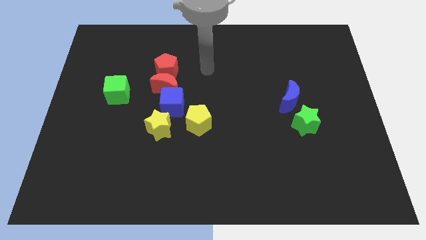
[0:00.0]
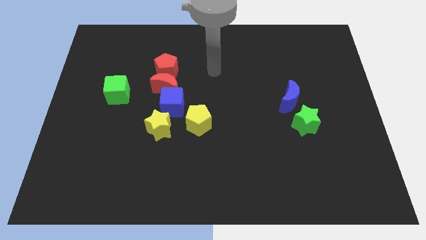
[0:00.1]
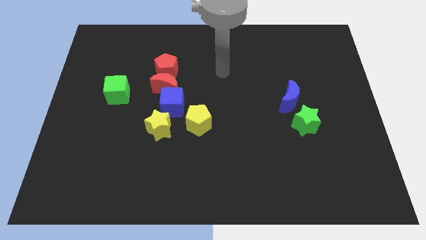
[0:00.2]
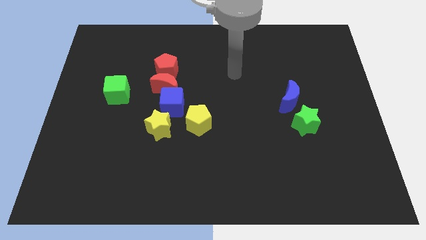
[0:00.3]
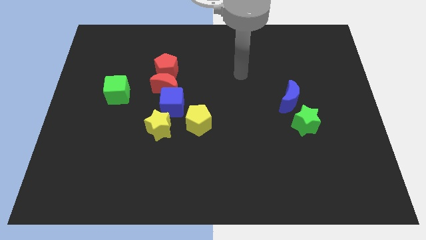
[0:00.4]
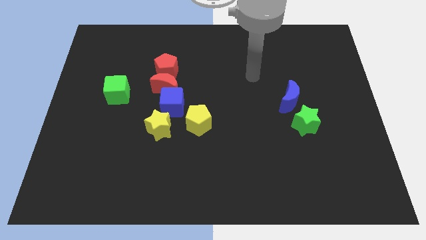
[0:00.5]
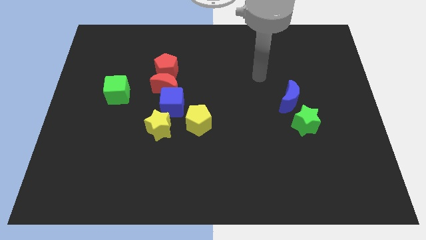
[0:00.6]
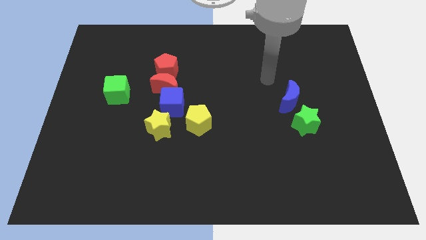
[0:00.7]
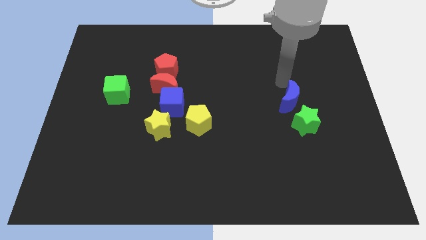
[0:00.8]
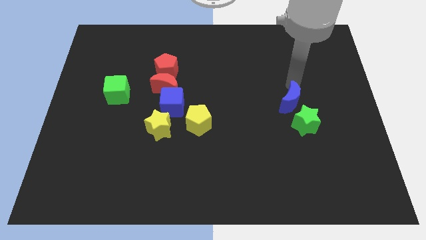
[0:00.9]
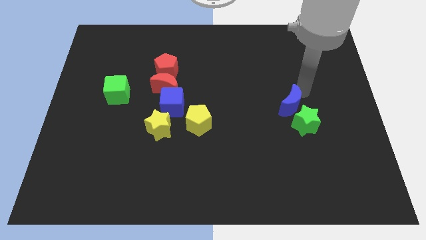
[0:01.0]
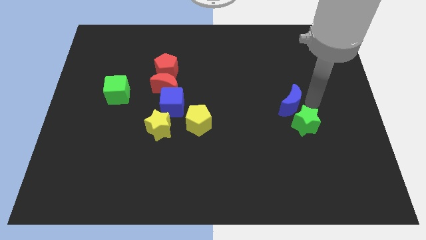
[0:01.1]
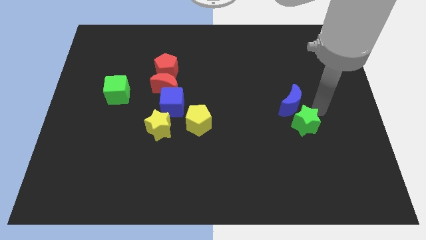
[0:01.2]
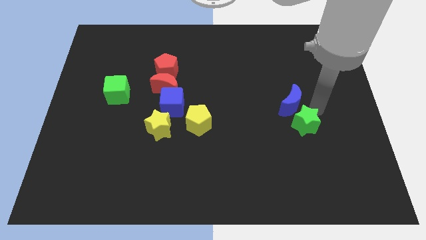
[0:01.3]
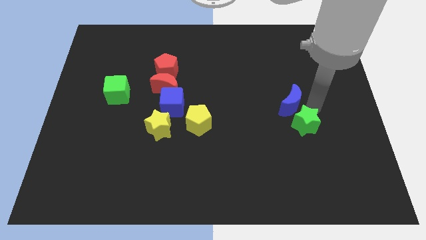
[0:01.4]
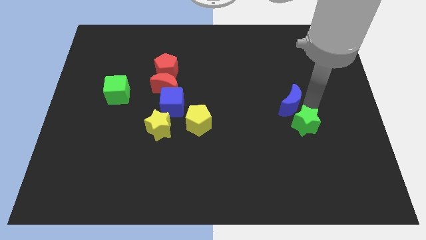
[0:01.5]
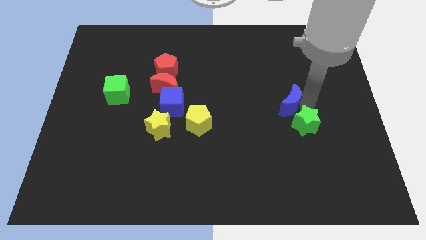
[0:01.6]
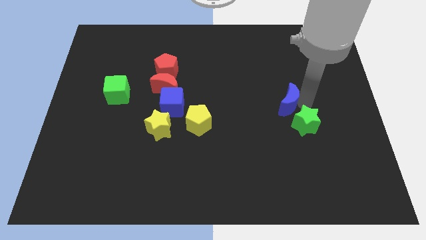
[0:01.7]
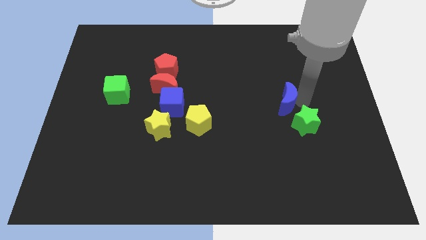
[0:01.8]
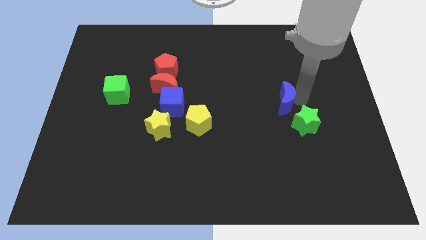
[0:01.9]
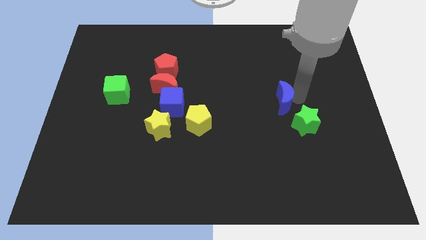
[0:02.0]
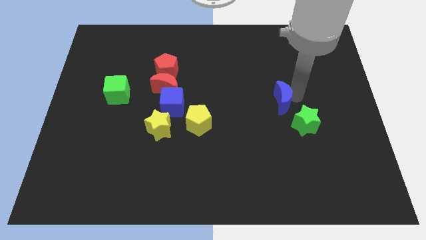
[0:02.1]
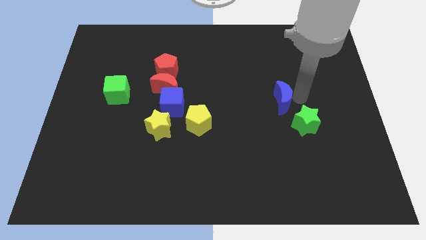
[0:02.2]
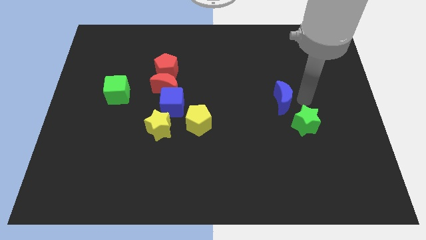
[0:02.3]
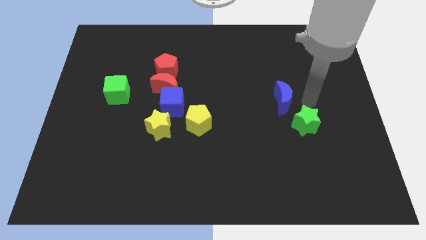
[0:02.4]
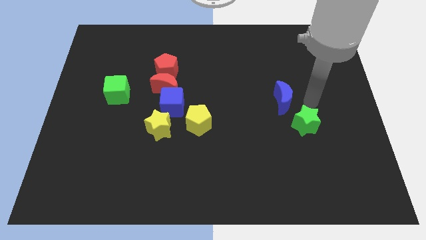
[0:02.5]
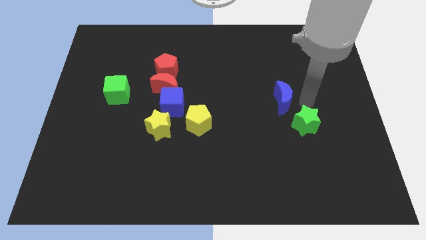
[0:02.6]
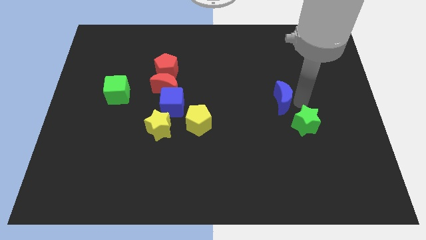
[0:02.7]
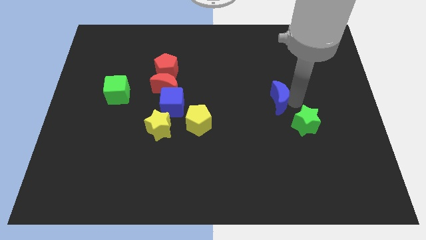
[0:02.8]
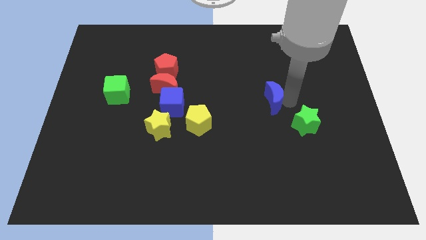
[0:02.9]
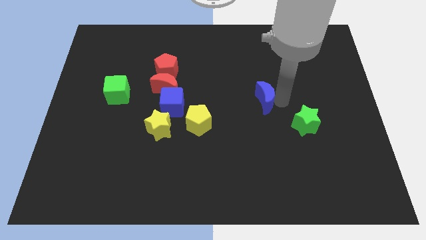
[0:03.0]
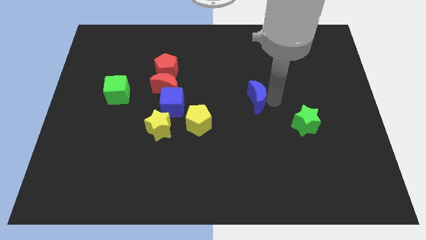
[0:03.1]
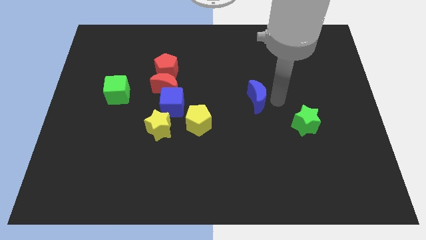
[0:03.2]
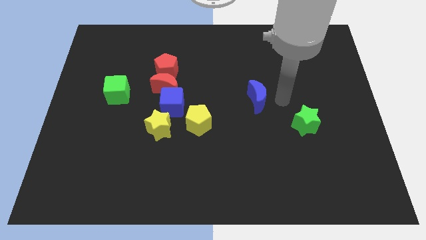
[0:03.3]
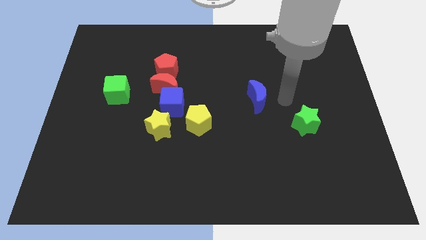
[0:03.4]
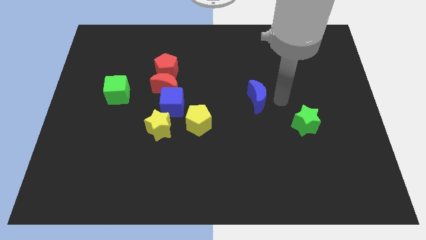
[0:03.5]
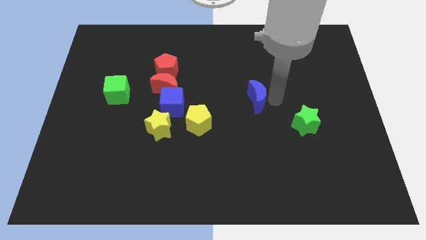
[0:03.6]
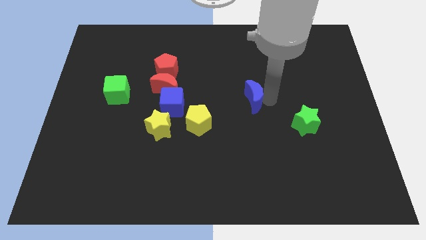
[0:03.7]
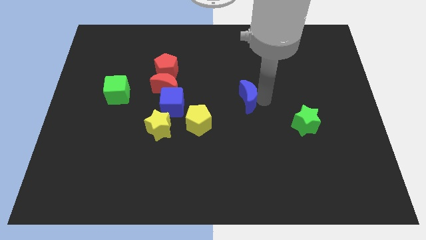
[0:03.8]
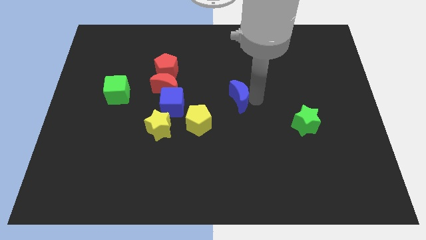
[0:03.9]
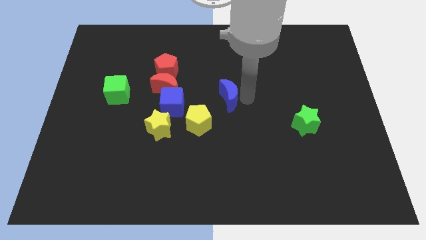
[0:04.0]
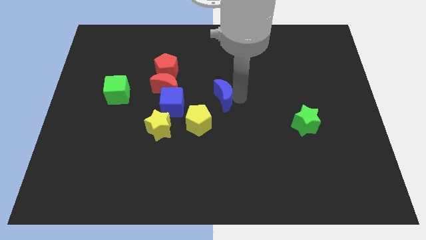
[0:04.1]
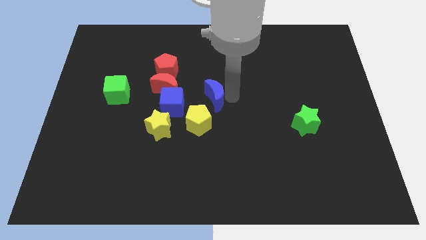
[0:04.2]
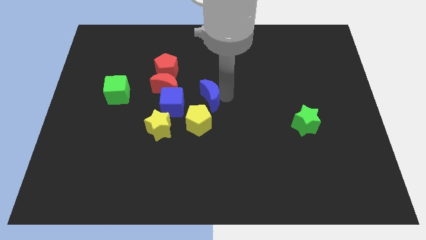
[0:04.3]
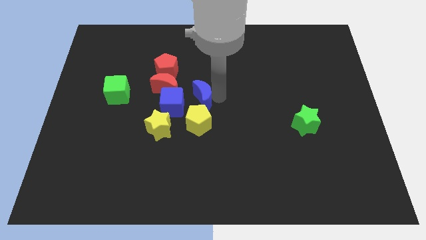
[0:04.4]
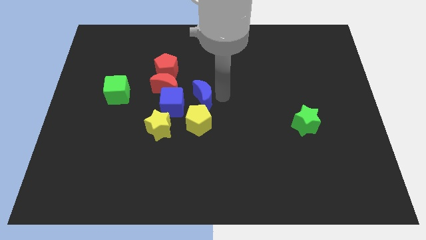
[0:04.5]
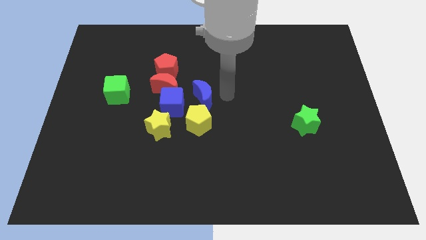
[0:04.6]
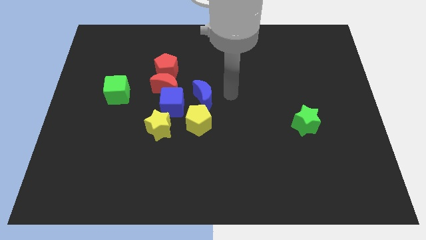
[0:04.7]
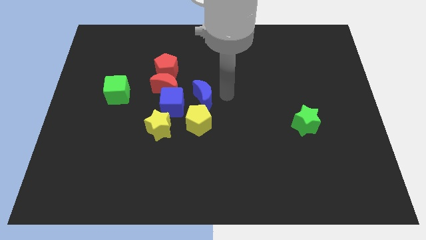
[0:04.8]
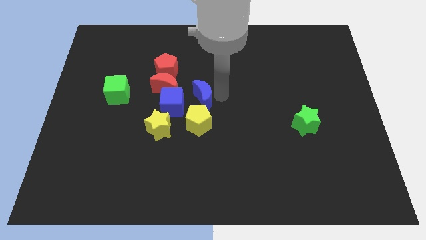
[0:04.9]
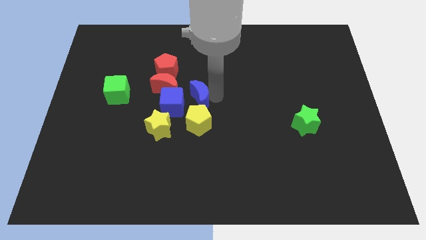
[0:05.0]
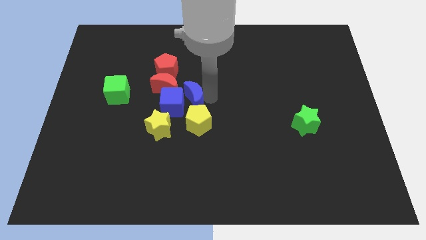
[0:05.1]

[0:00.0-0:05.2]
move the blue moon next to the blue cube

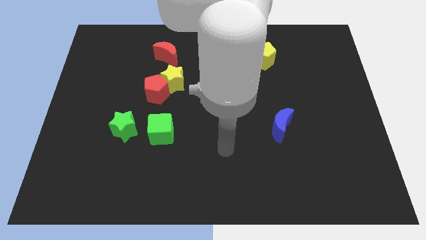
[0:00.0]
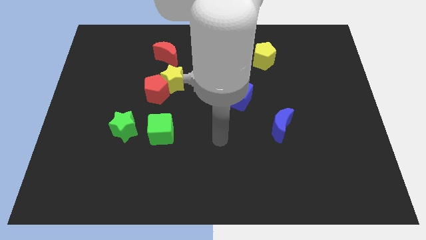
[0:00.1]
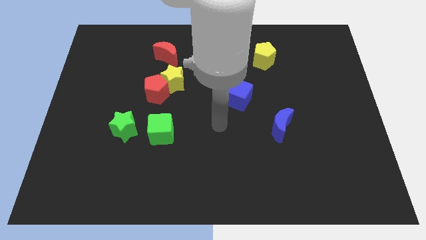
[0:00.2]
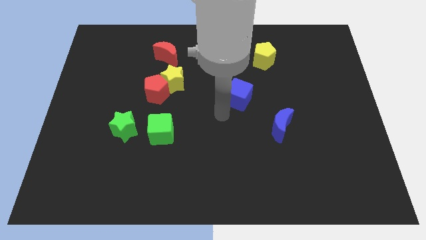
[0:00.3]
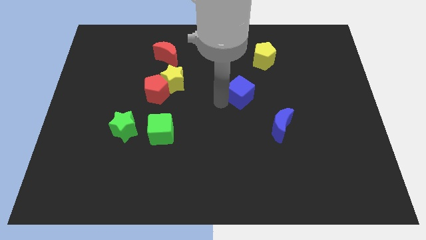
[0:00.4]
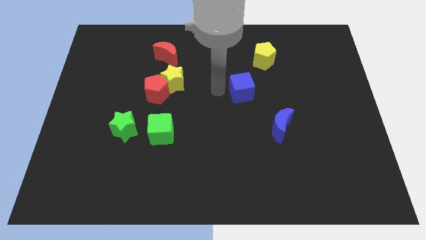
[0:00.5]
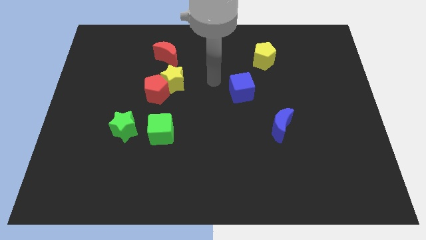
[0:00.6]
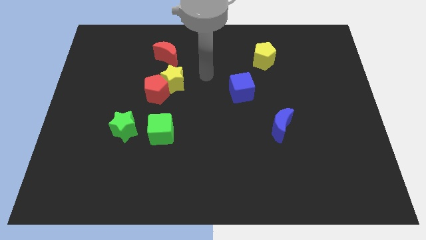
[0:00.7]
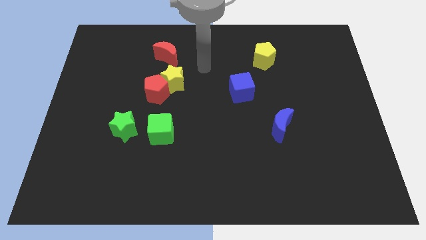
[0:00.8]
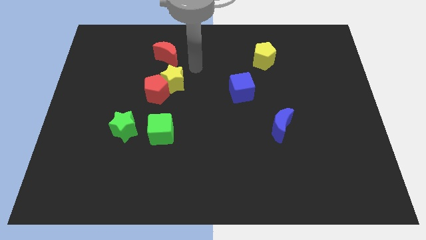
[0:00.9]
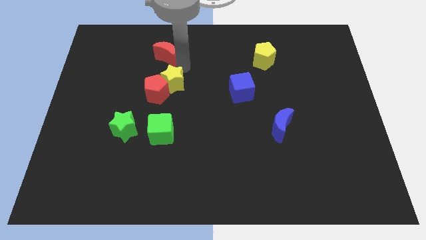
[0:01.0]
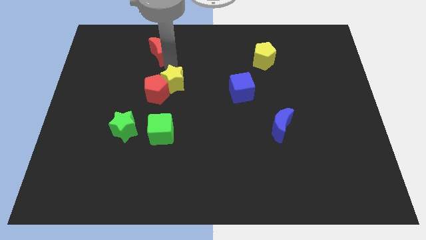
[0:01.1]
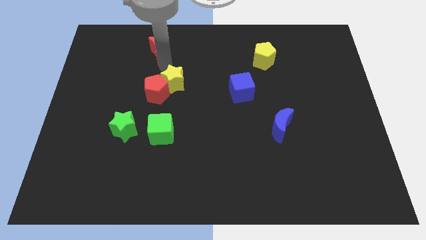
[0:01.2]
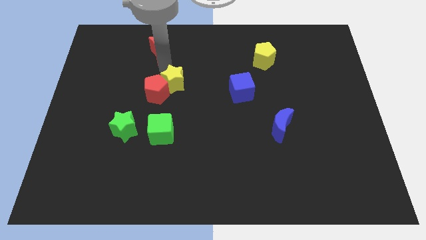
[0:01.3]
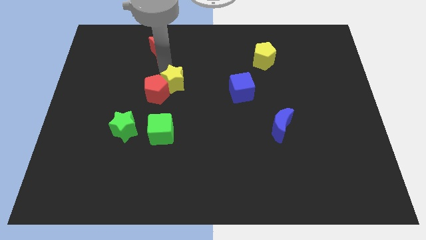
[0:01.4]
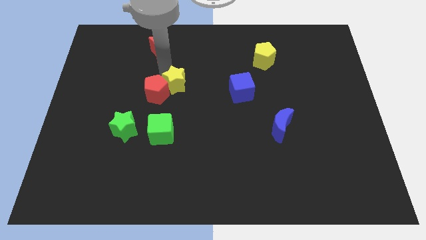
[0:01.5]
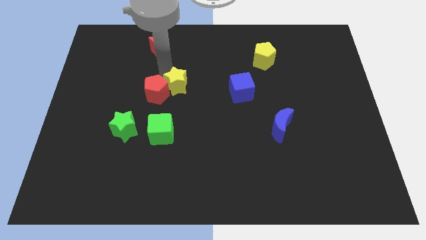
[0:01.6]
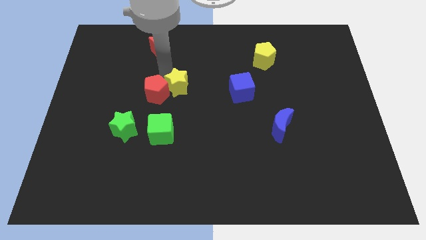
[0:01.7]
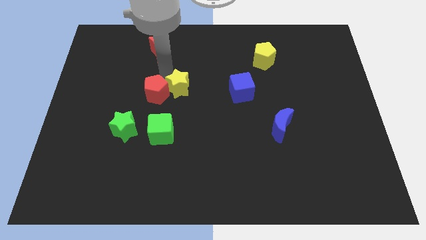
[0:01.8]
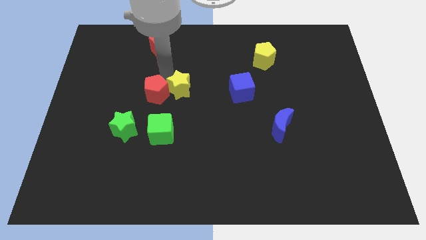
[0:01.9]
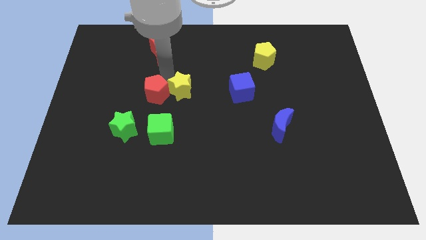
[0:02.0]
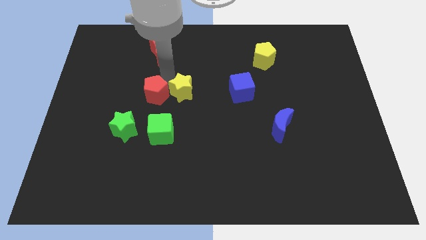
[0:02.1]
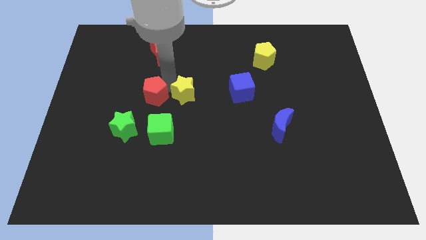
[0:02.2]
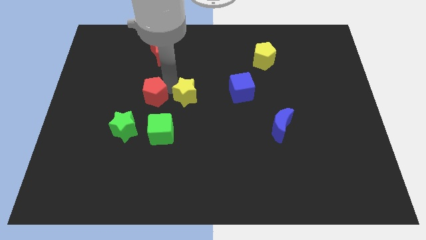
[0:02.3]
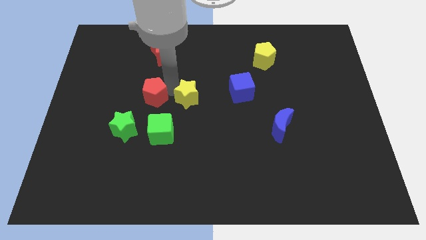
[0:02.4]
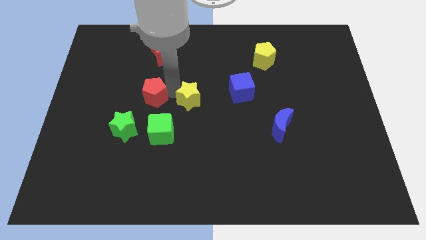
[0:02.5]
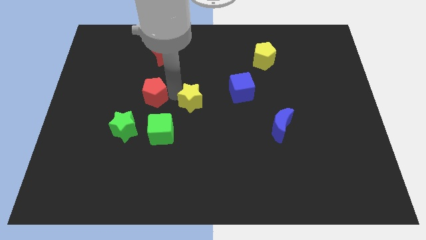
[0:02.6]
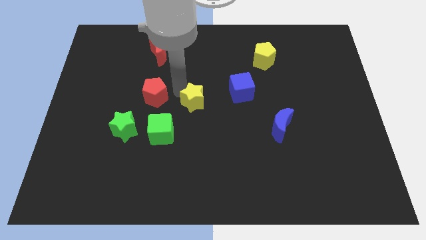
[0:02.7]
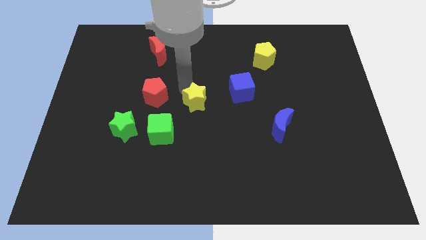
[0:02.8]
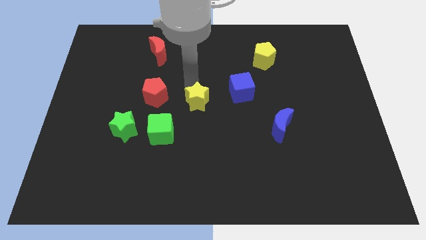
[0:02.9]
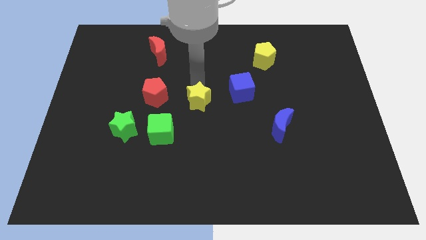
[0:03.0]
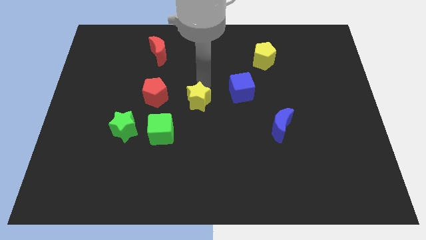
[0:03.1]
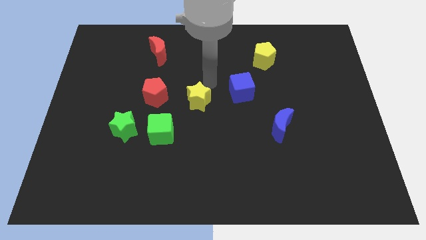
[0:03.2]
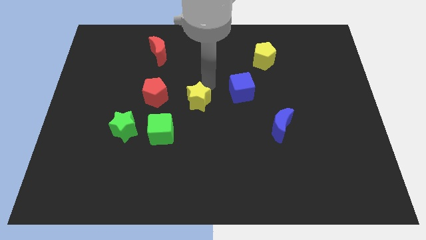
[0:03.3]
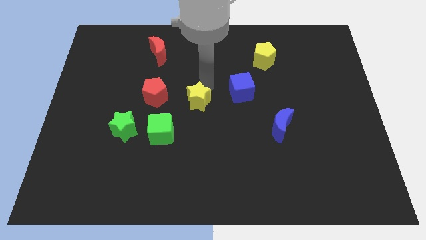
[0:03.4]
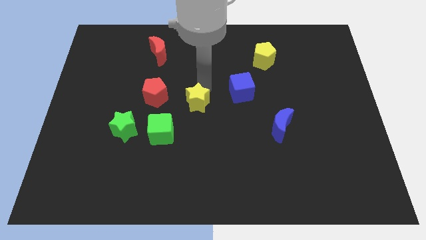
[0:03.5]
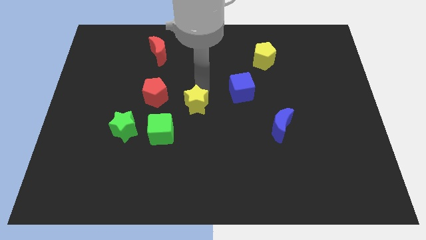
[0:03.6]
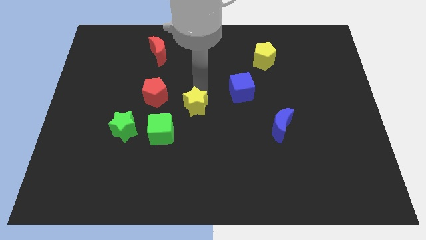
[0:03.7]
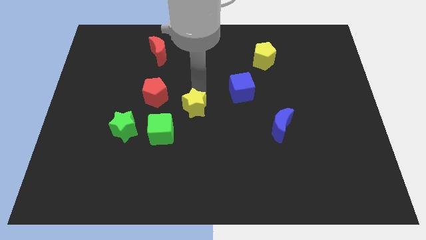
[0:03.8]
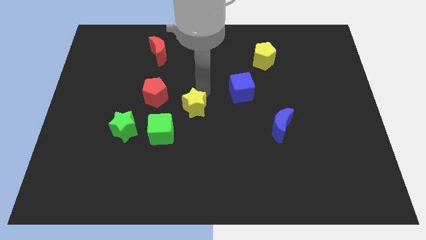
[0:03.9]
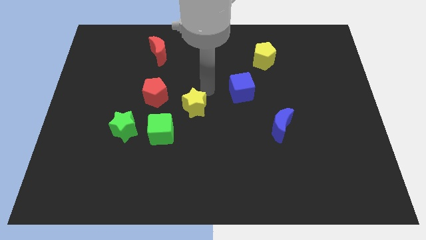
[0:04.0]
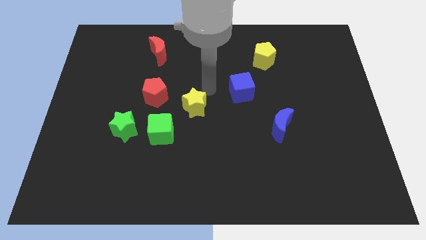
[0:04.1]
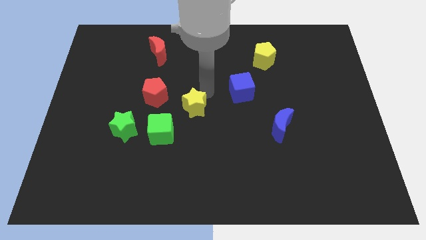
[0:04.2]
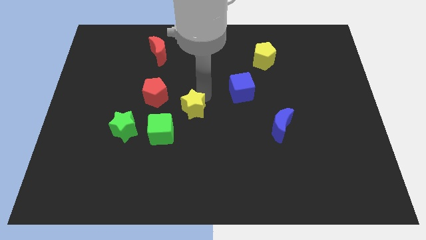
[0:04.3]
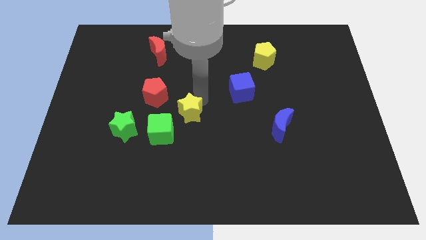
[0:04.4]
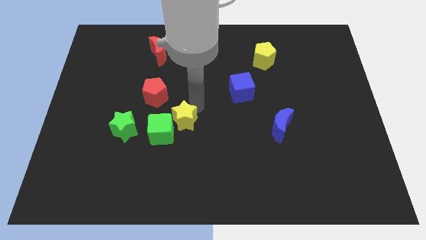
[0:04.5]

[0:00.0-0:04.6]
slide the yellow star close to the green cube
